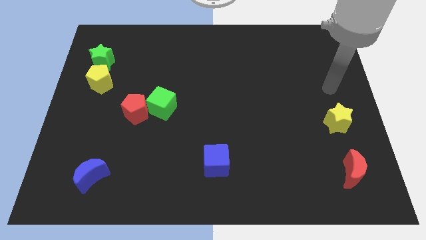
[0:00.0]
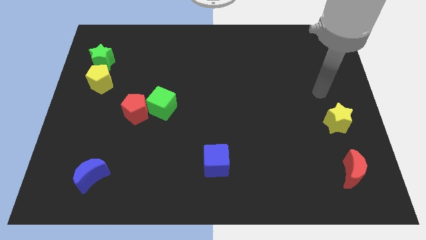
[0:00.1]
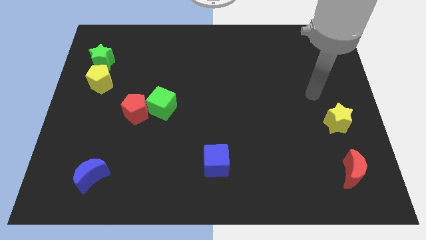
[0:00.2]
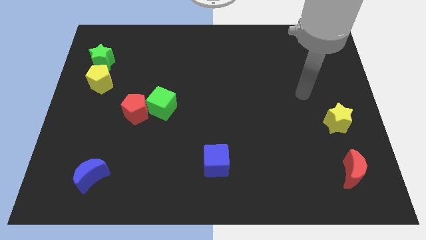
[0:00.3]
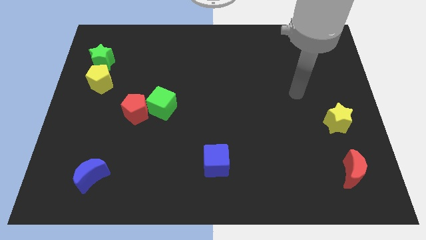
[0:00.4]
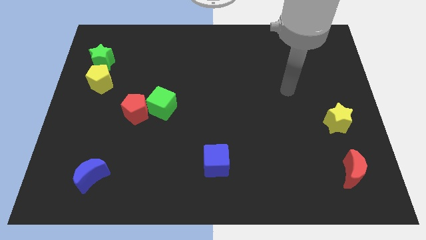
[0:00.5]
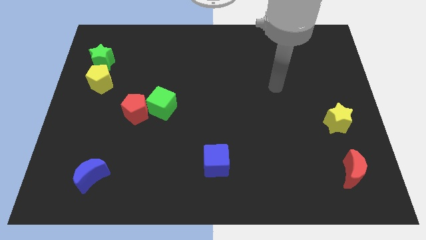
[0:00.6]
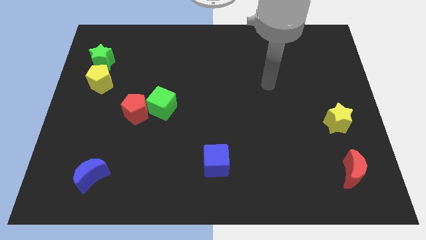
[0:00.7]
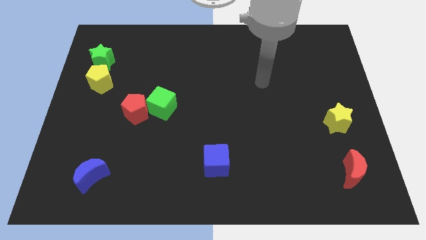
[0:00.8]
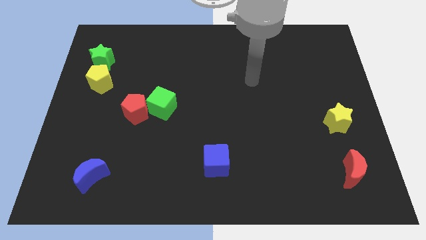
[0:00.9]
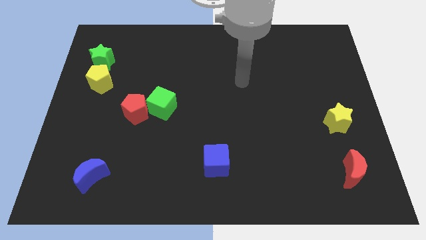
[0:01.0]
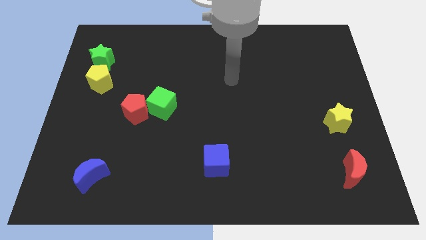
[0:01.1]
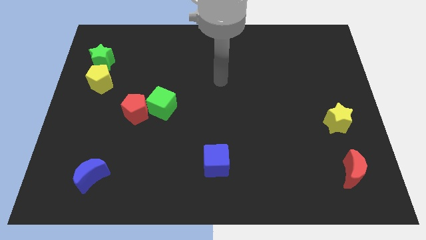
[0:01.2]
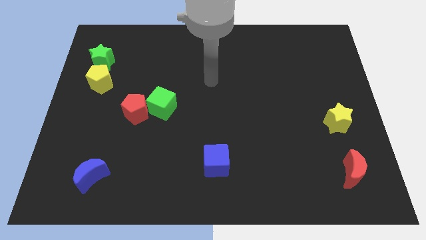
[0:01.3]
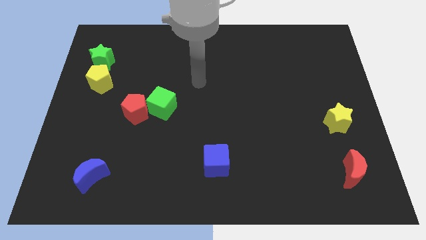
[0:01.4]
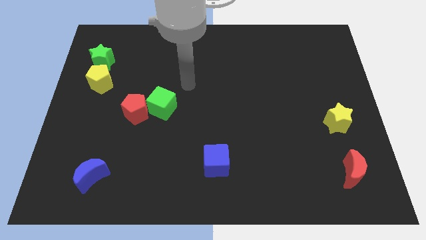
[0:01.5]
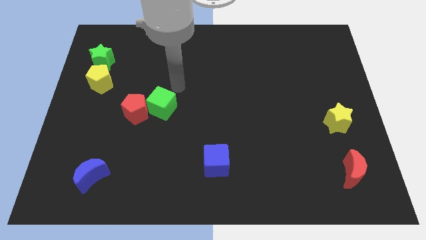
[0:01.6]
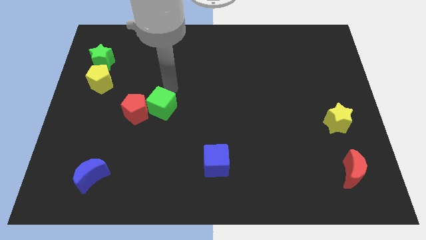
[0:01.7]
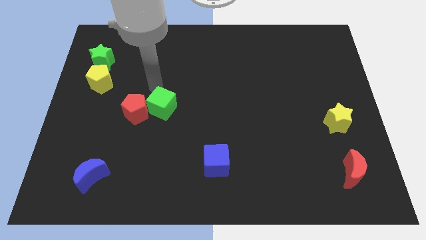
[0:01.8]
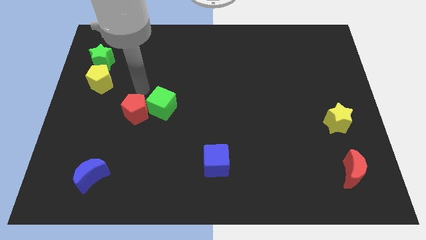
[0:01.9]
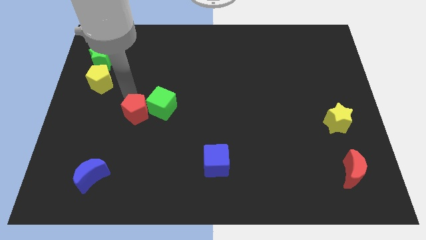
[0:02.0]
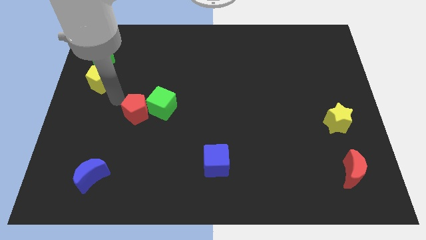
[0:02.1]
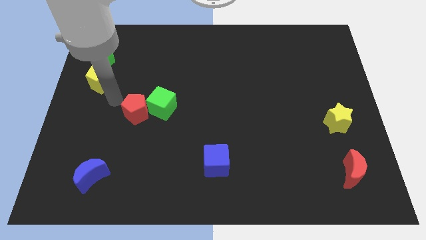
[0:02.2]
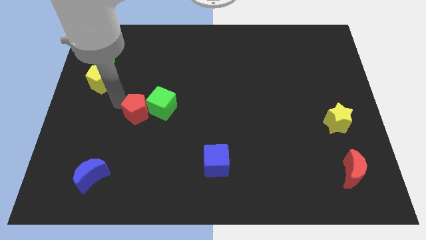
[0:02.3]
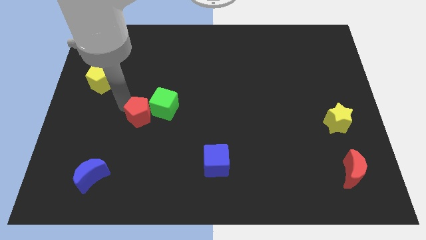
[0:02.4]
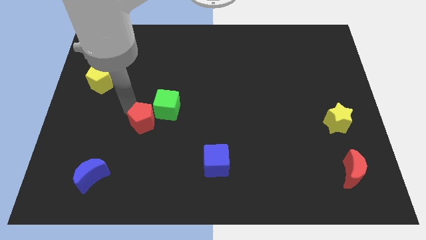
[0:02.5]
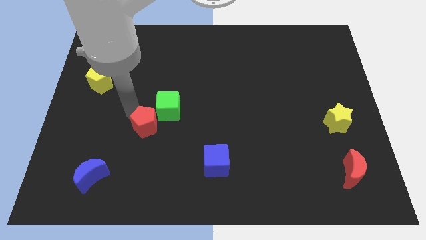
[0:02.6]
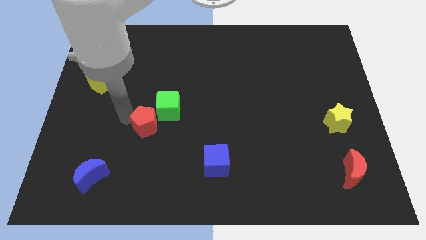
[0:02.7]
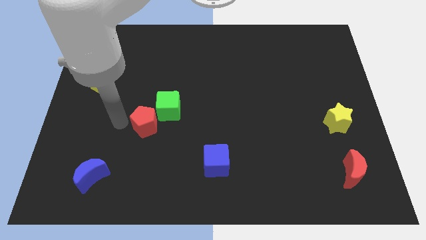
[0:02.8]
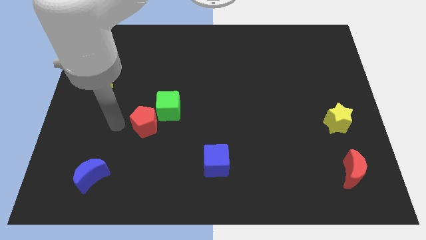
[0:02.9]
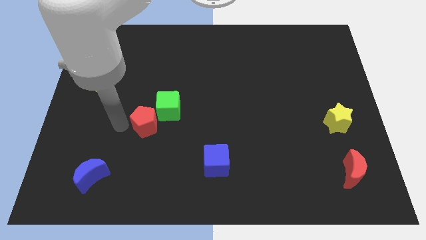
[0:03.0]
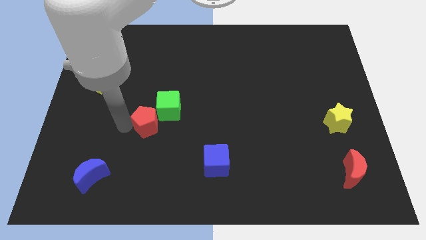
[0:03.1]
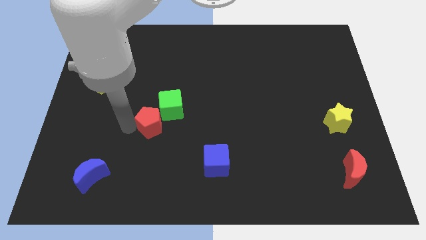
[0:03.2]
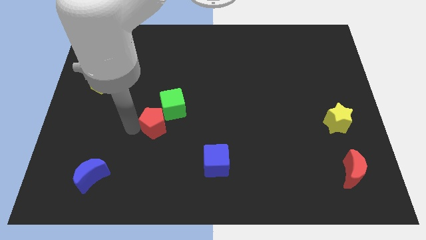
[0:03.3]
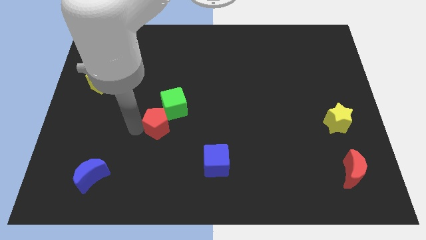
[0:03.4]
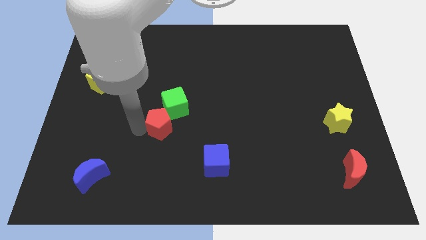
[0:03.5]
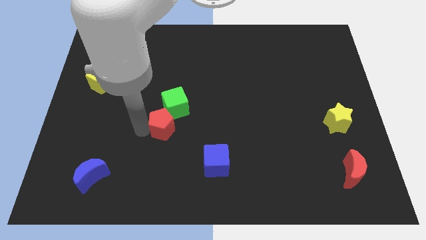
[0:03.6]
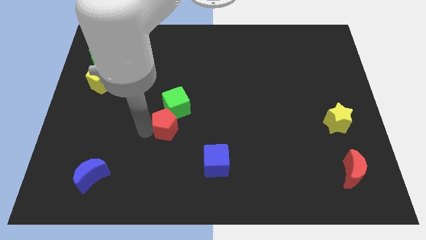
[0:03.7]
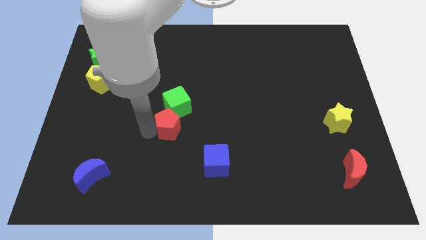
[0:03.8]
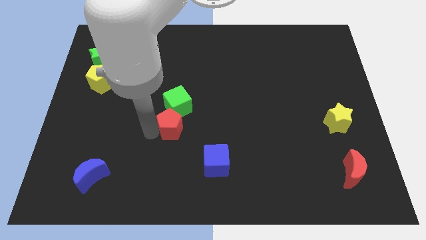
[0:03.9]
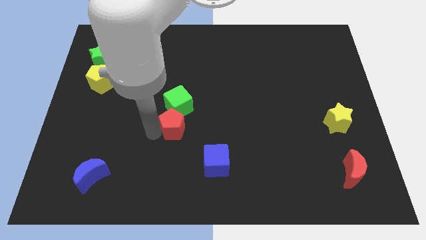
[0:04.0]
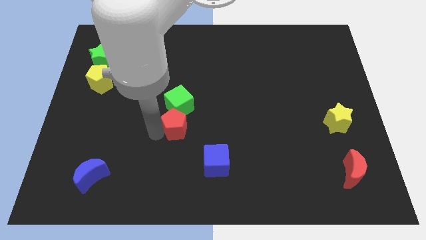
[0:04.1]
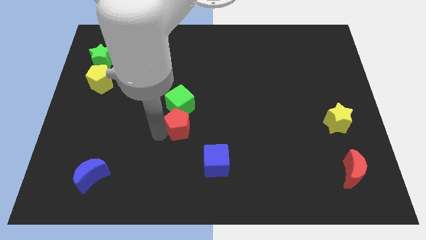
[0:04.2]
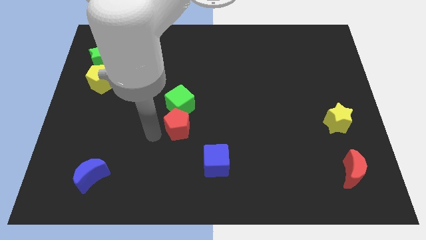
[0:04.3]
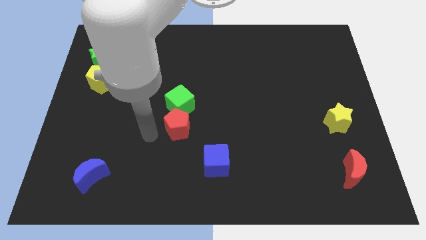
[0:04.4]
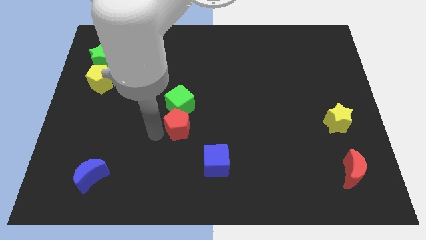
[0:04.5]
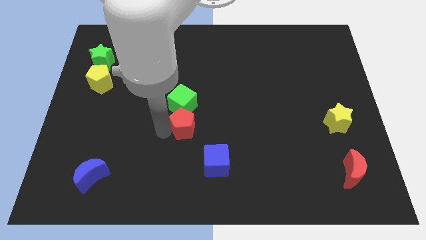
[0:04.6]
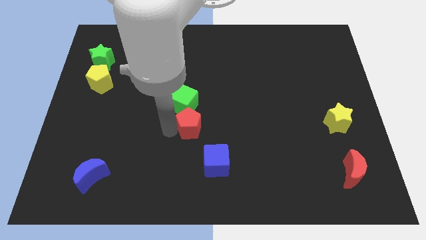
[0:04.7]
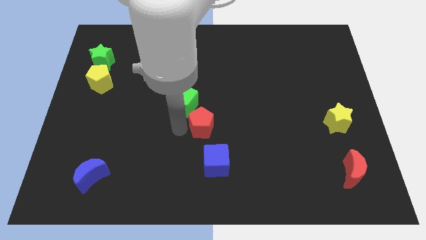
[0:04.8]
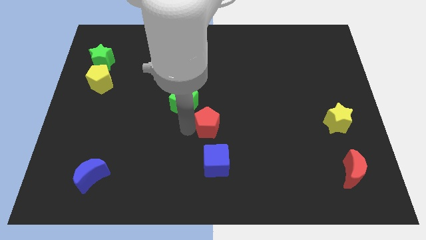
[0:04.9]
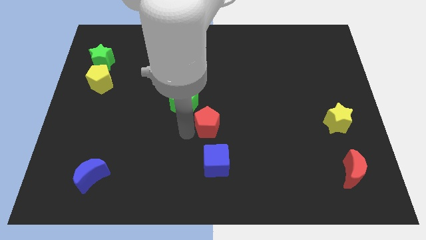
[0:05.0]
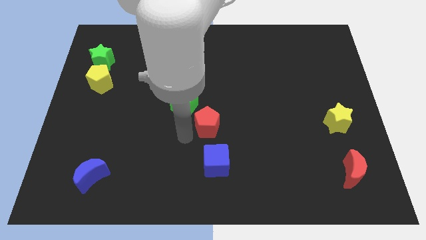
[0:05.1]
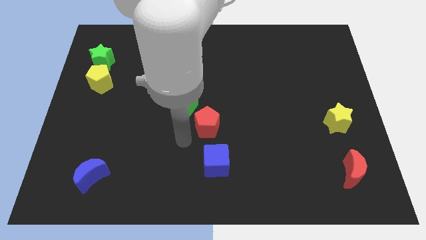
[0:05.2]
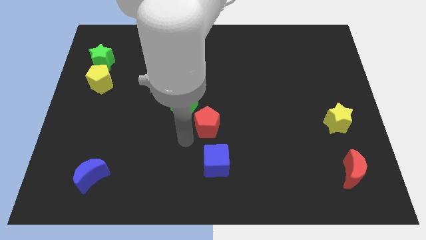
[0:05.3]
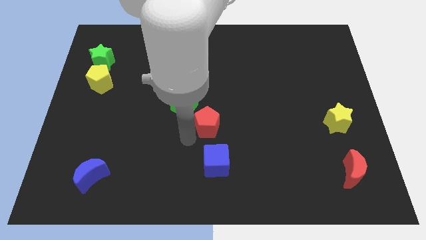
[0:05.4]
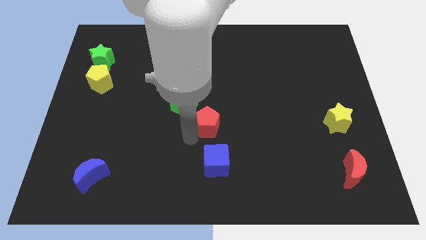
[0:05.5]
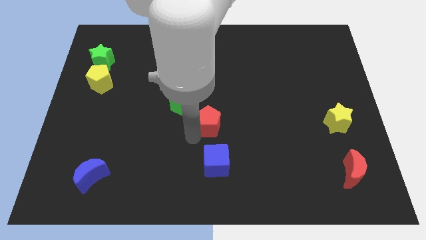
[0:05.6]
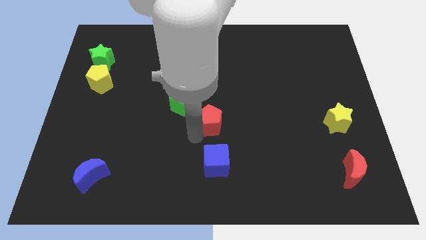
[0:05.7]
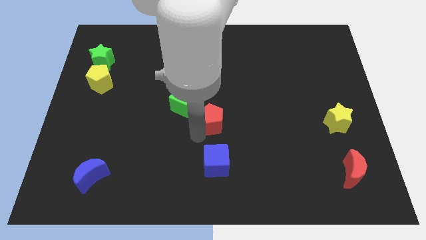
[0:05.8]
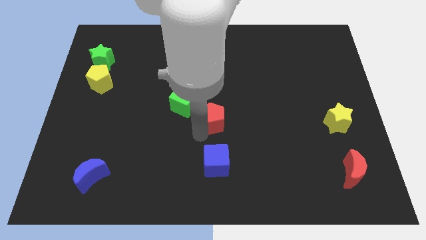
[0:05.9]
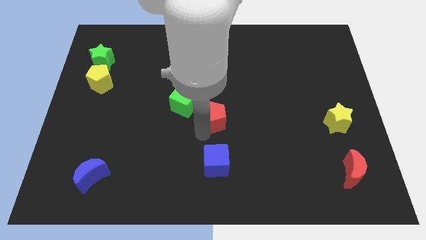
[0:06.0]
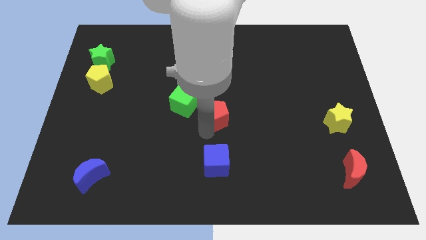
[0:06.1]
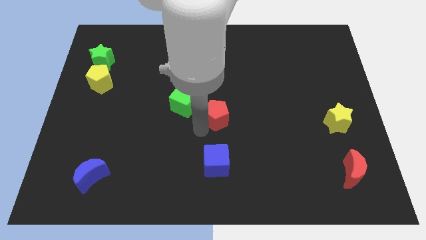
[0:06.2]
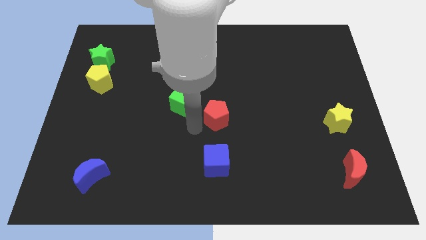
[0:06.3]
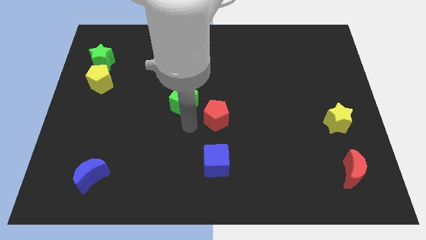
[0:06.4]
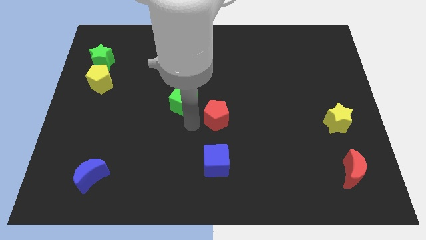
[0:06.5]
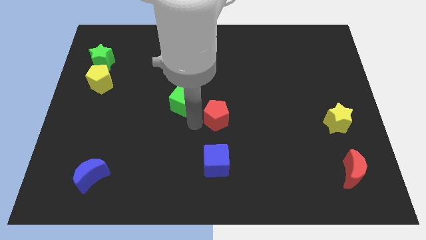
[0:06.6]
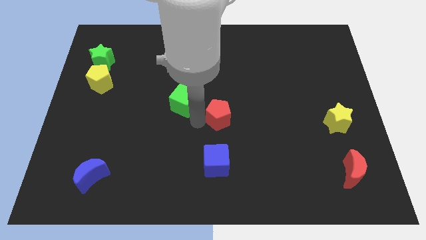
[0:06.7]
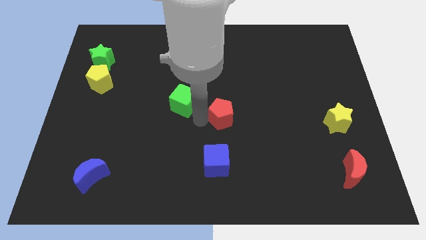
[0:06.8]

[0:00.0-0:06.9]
slide the red pentagon to the right

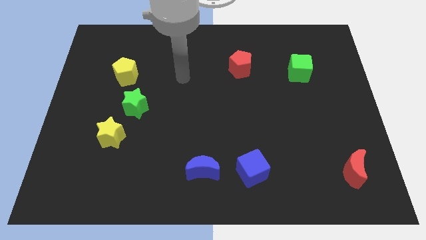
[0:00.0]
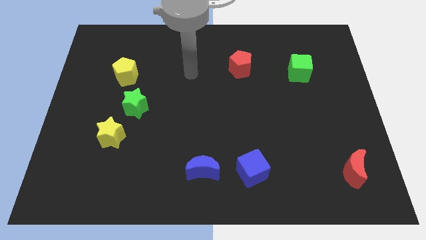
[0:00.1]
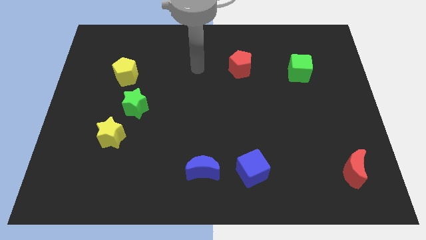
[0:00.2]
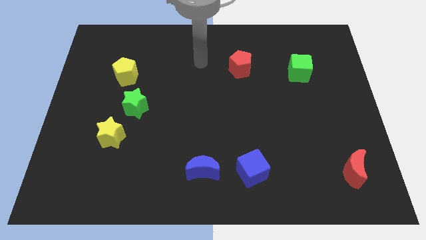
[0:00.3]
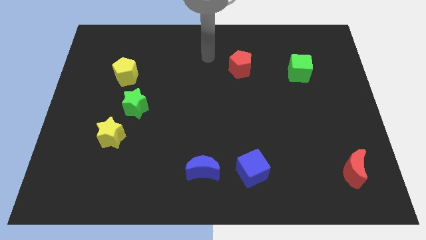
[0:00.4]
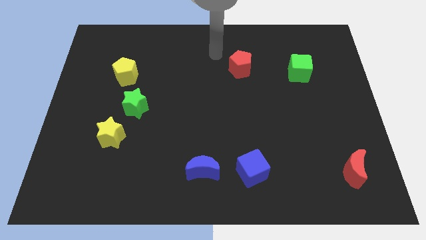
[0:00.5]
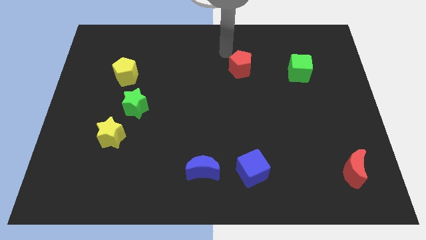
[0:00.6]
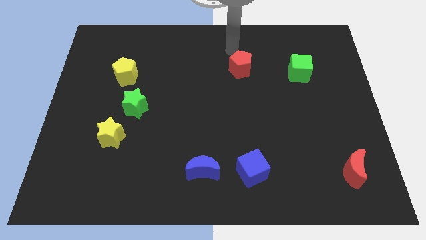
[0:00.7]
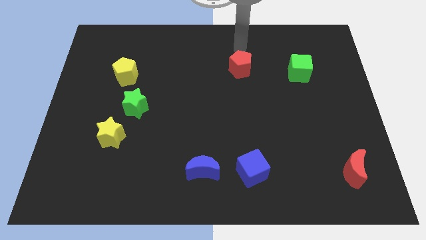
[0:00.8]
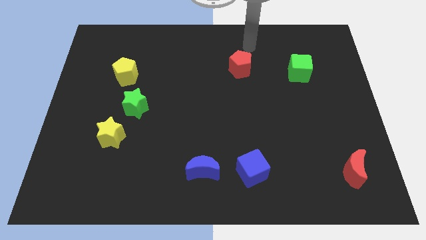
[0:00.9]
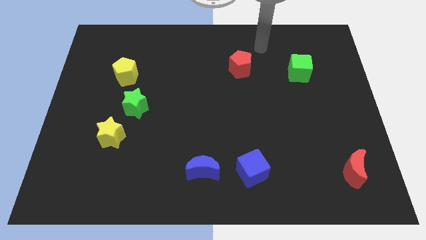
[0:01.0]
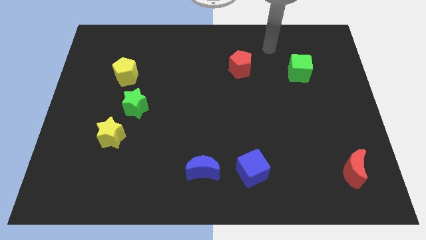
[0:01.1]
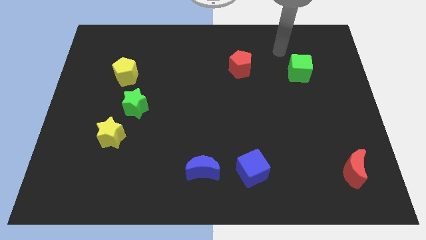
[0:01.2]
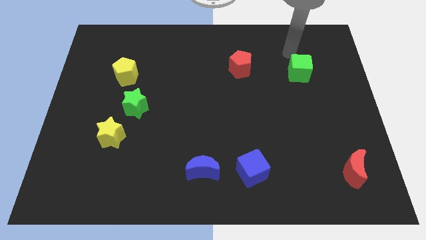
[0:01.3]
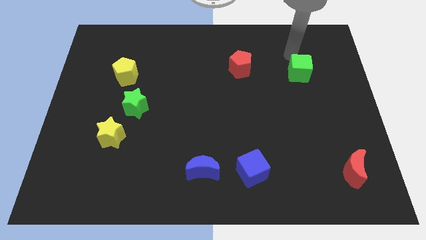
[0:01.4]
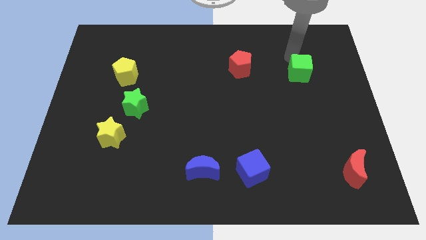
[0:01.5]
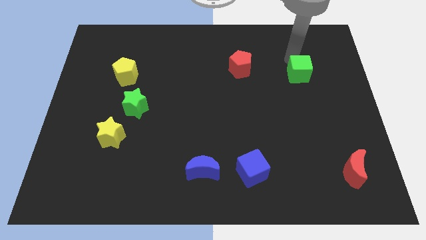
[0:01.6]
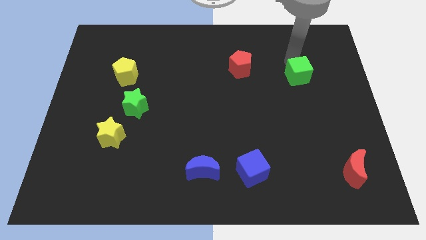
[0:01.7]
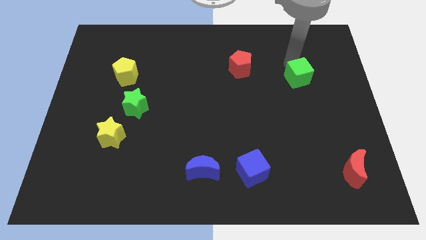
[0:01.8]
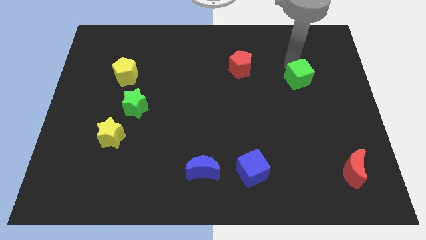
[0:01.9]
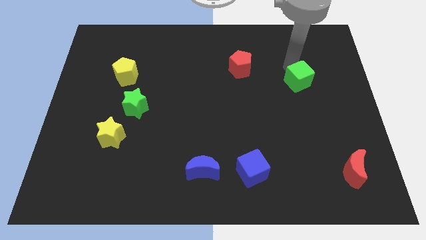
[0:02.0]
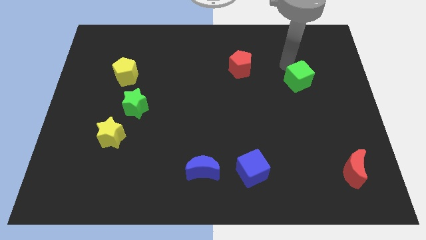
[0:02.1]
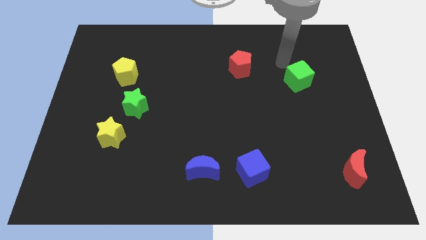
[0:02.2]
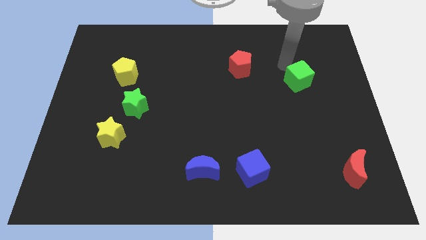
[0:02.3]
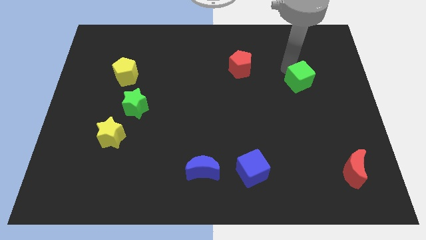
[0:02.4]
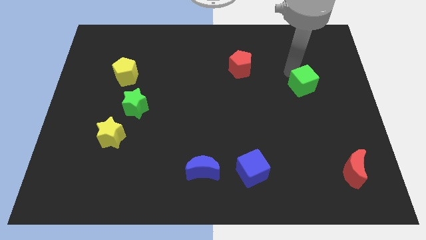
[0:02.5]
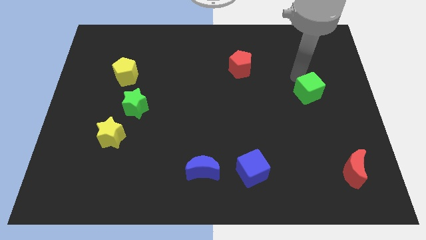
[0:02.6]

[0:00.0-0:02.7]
slightly push the green cube down
